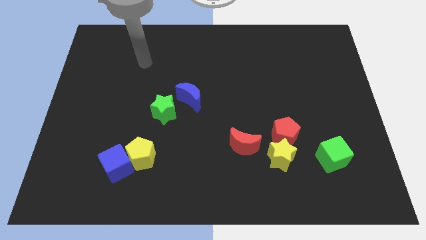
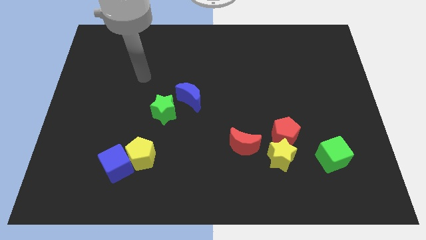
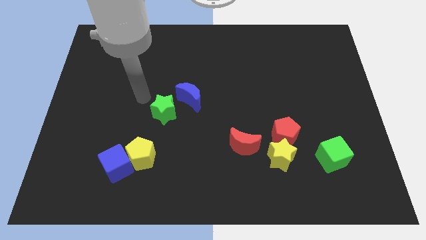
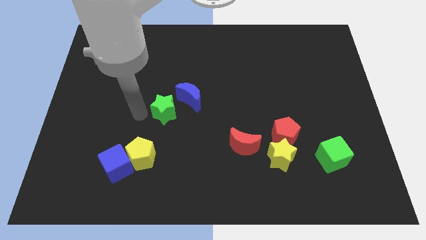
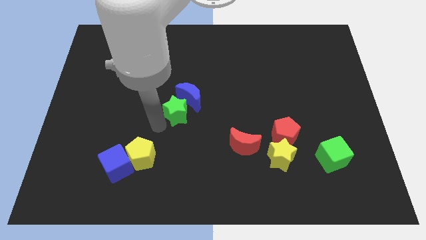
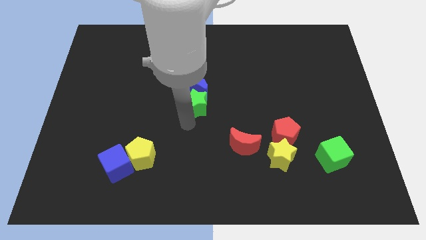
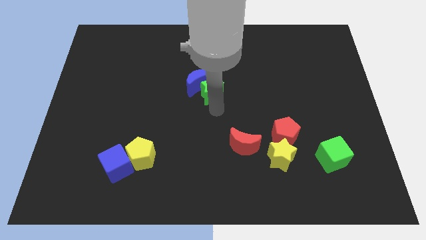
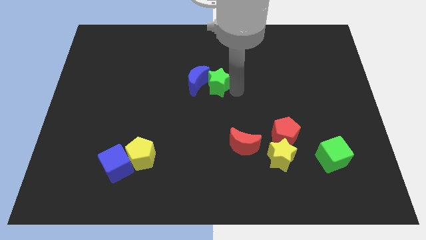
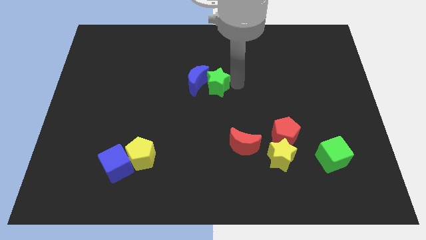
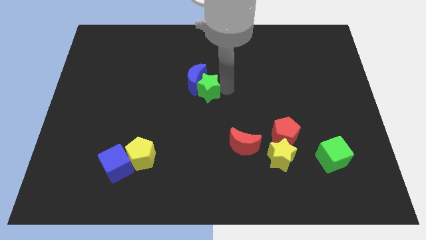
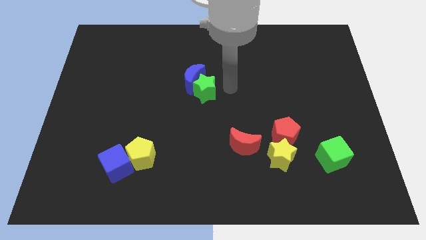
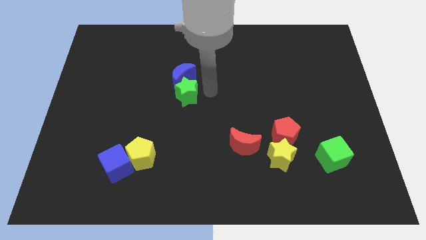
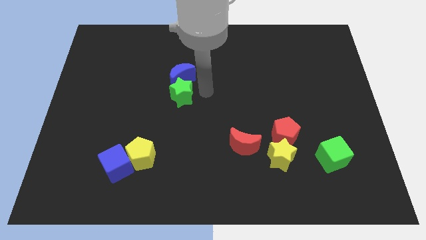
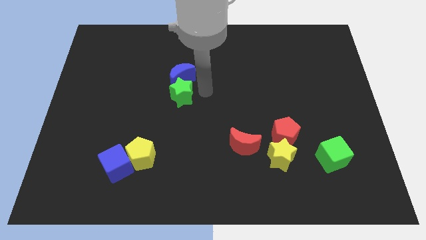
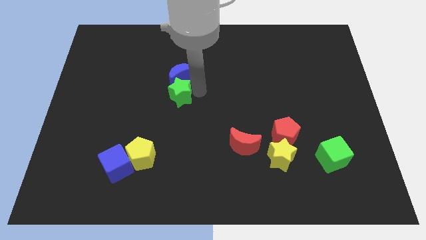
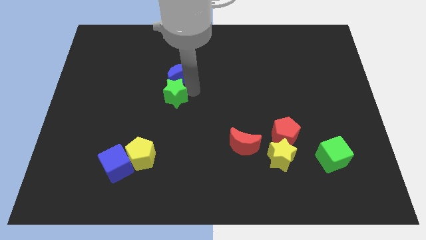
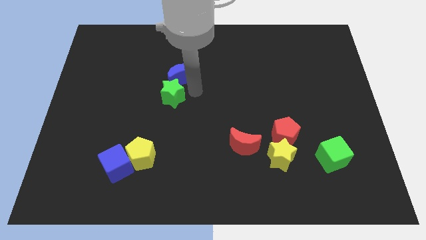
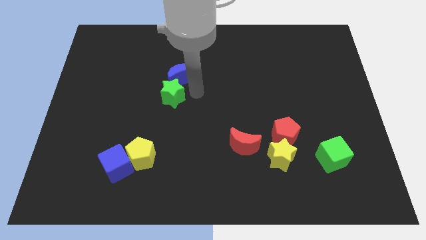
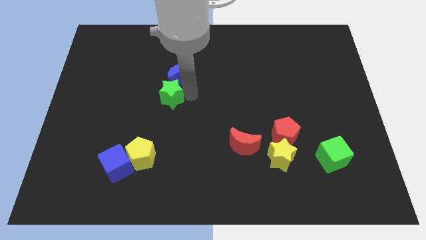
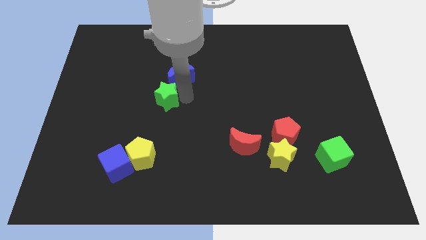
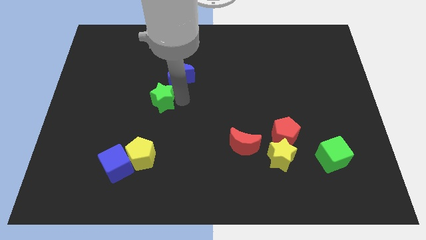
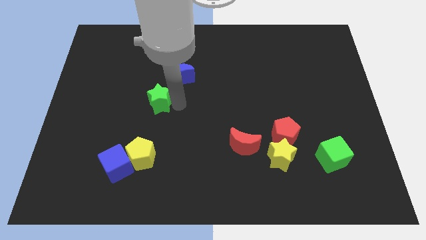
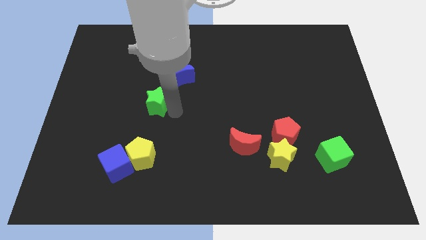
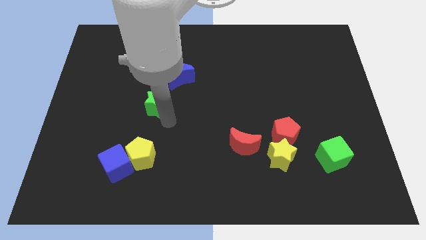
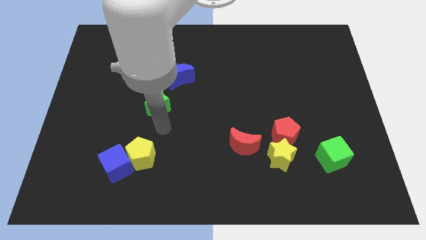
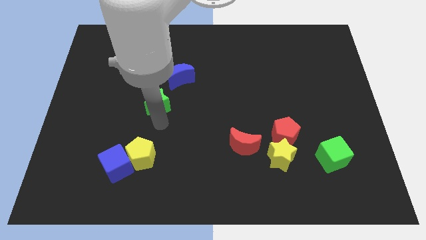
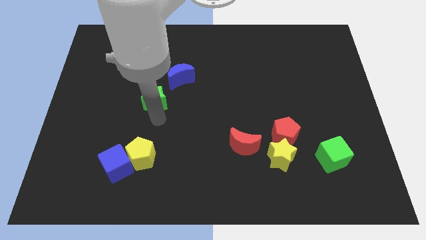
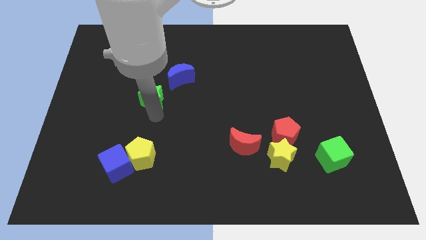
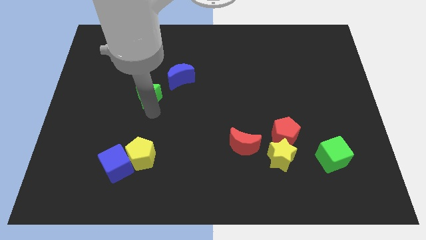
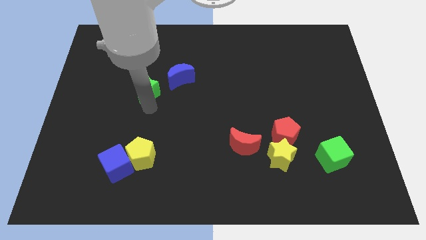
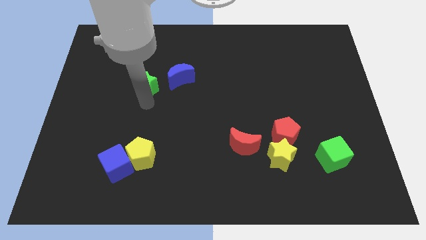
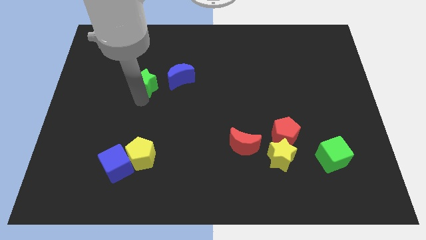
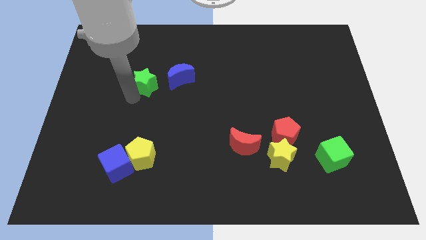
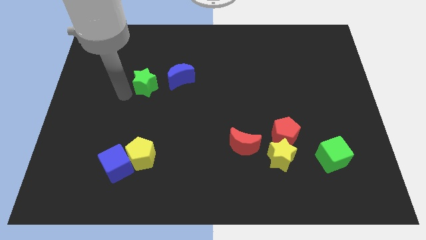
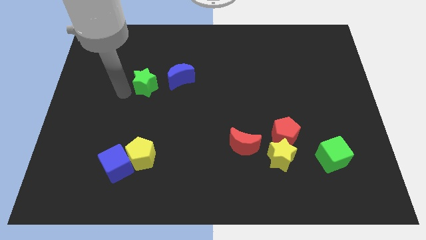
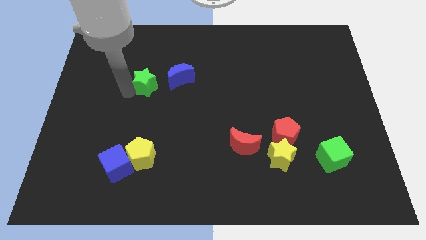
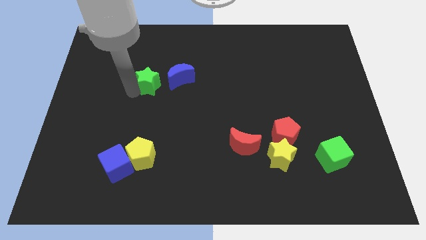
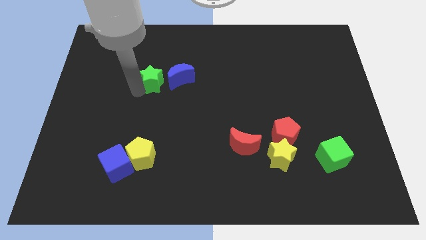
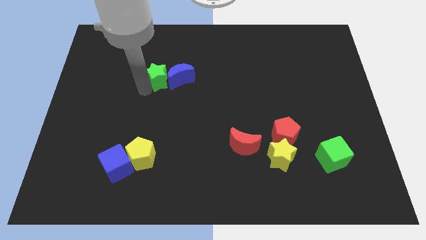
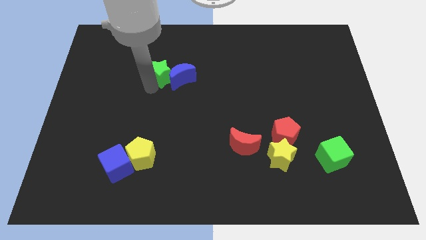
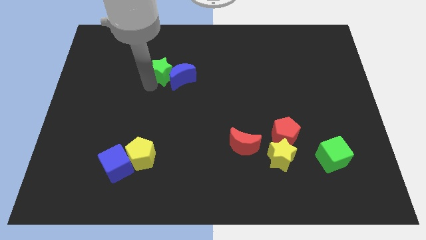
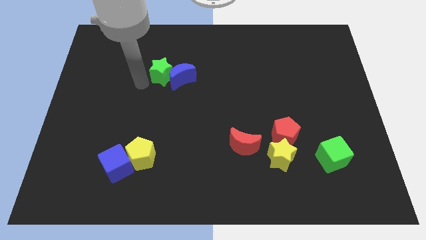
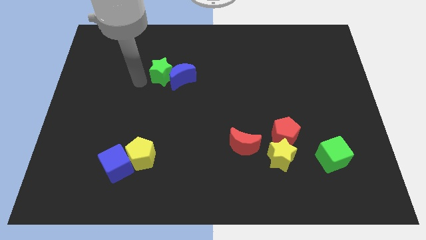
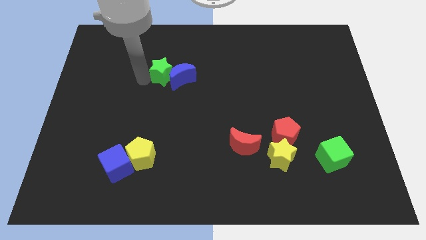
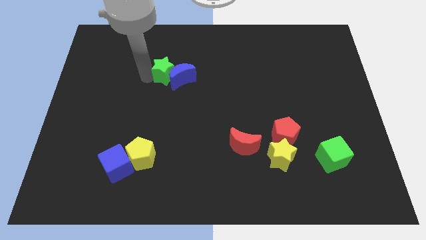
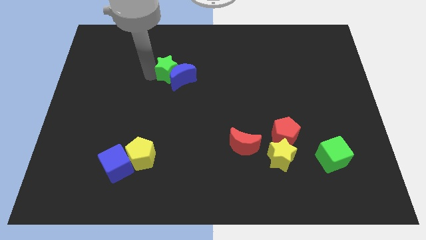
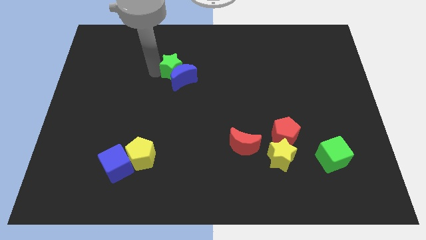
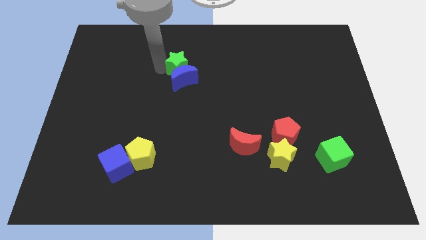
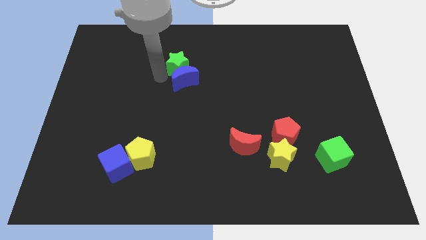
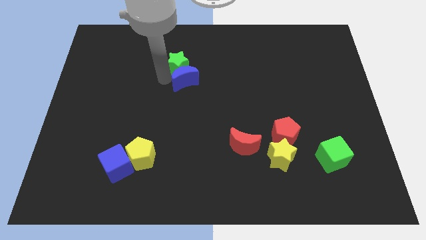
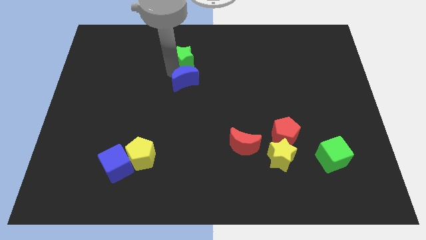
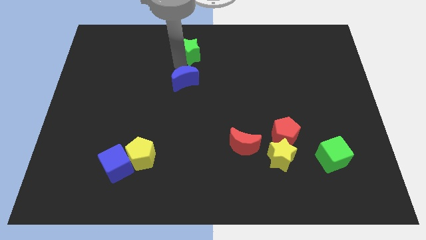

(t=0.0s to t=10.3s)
move the green star to the towards your base

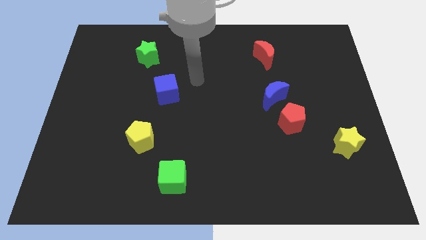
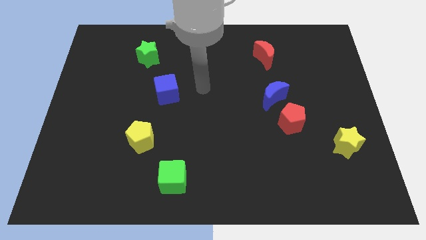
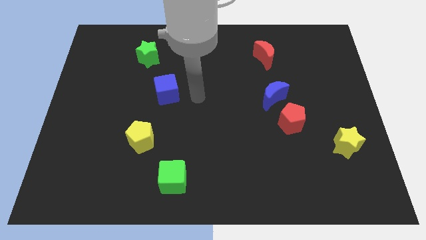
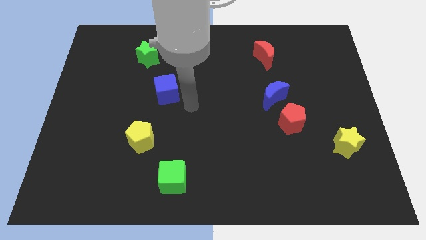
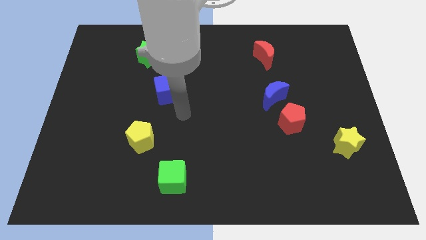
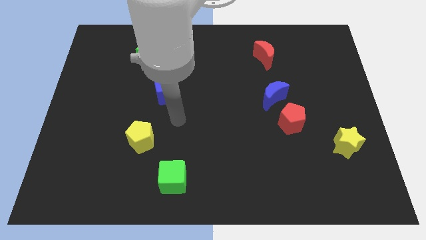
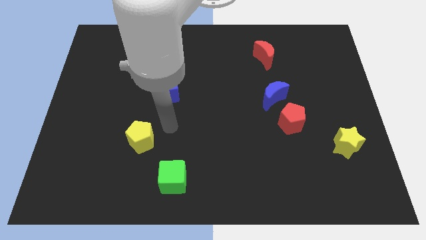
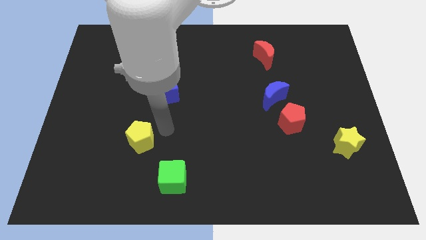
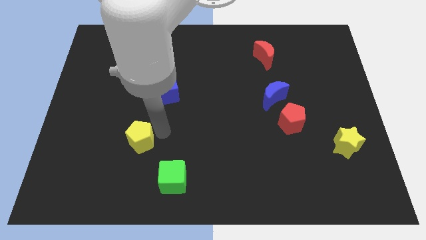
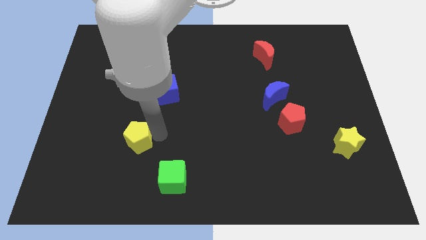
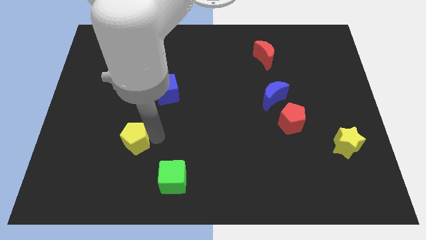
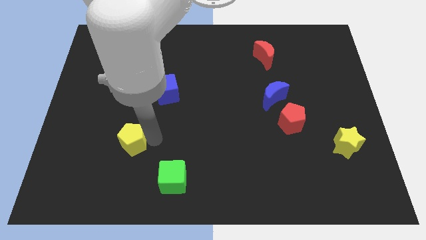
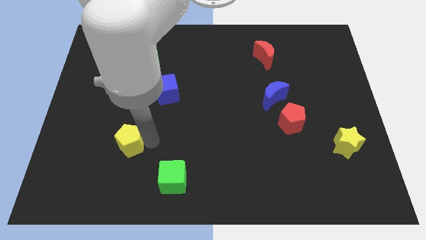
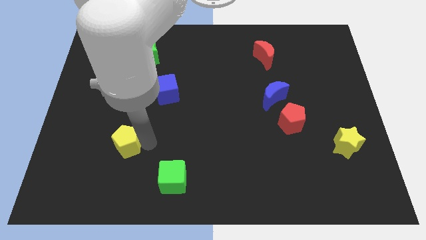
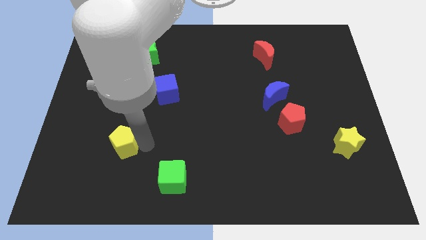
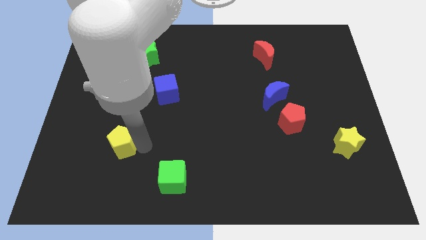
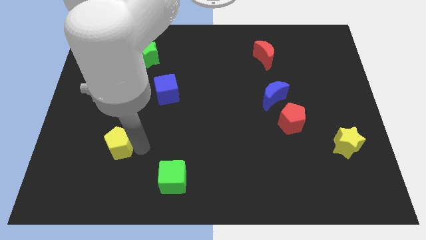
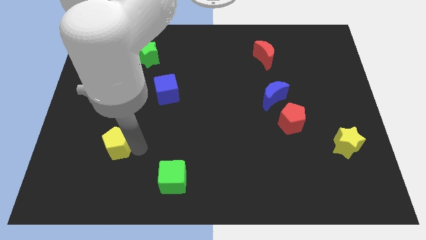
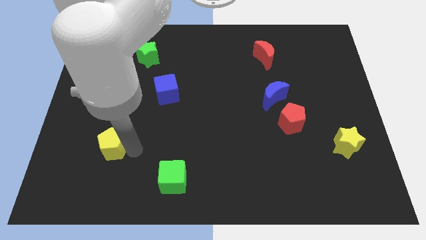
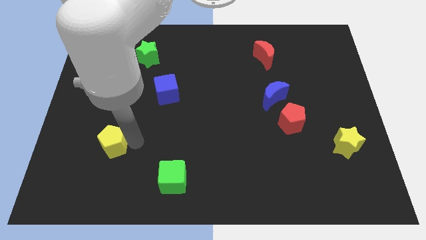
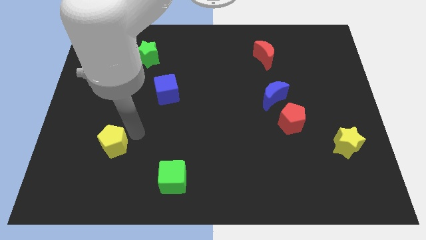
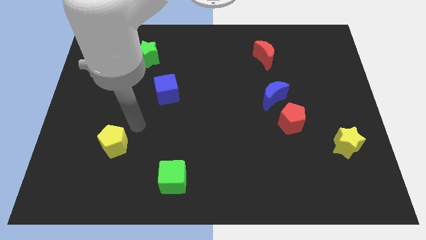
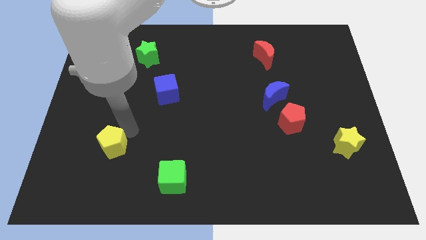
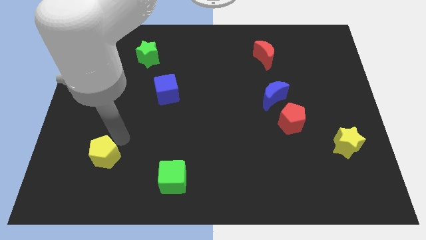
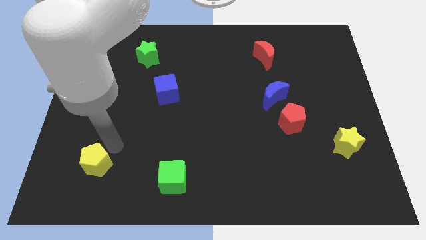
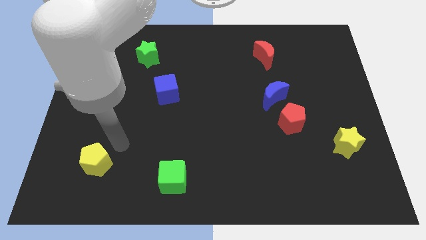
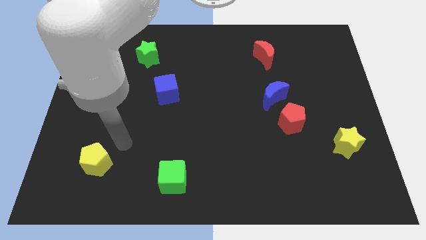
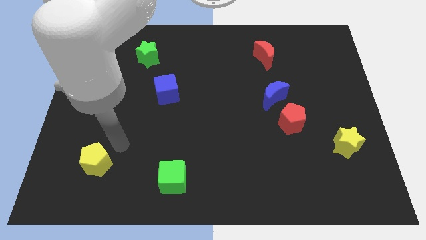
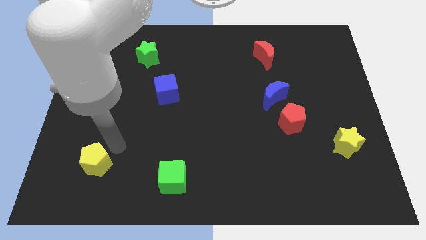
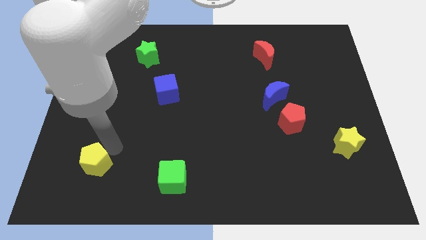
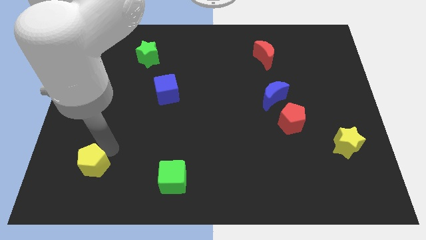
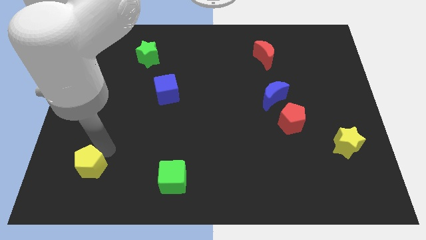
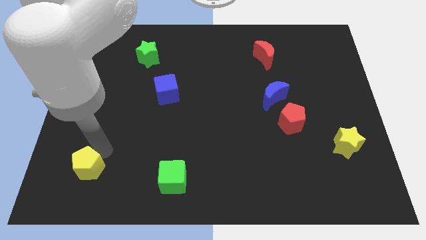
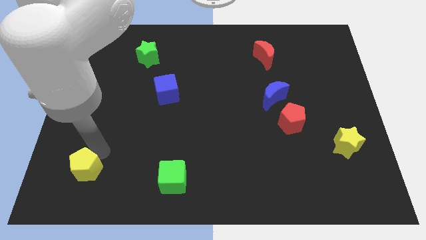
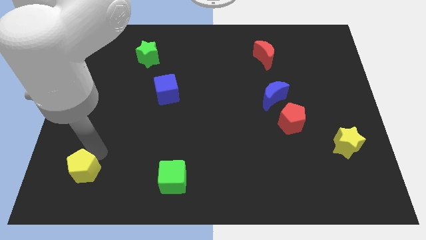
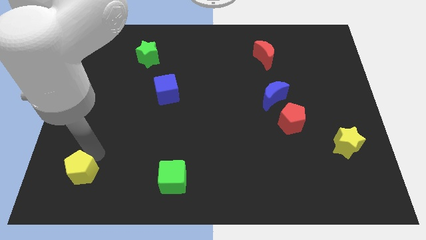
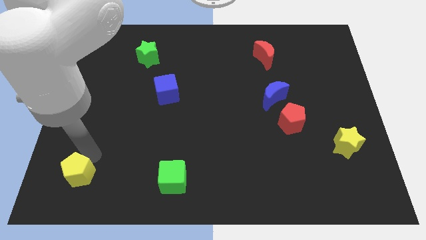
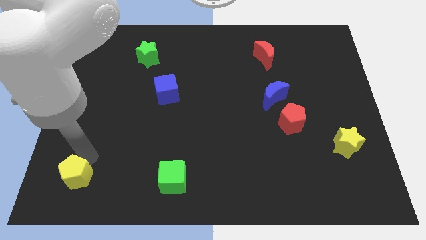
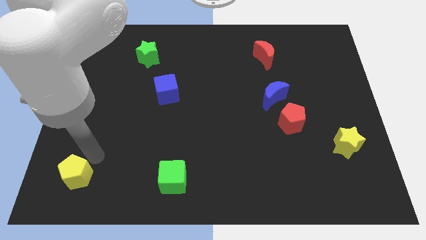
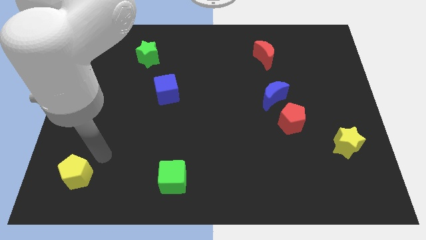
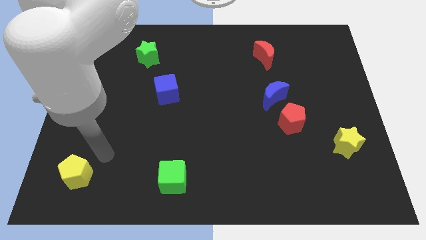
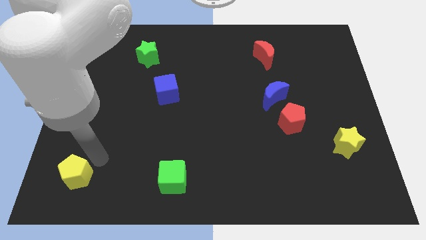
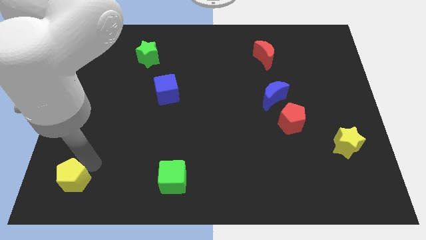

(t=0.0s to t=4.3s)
slide the yellow pentagon to the bottom left
